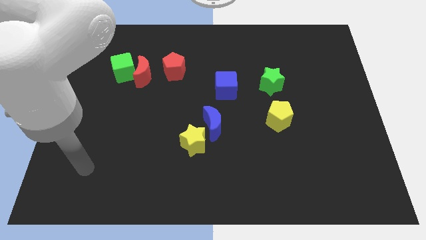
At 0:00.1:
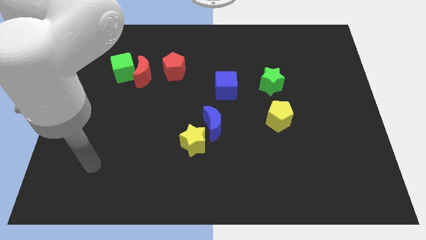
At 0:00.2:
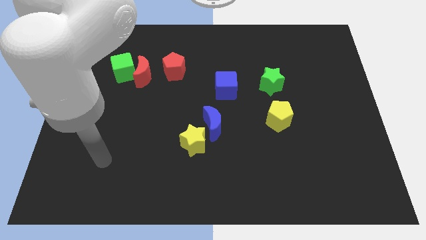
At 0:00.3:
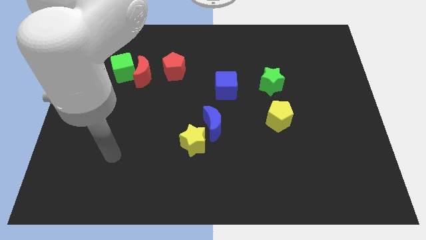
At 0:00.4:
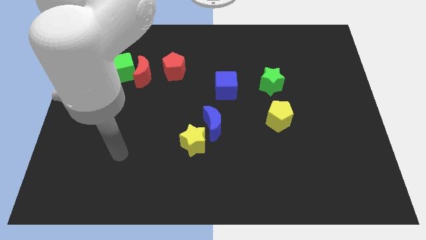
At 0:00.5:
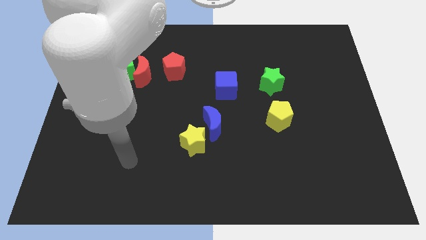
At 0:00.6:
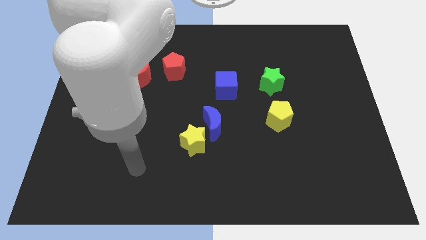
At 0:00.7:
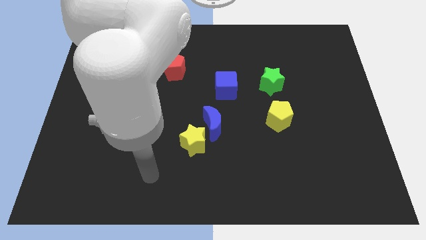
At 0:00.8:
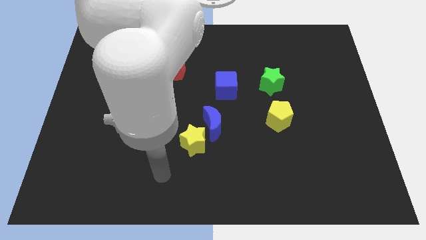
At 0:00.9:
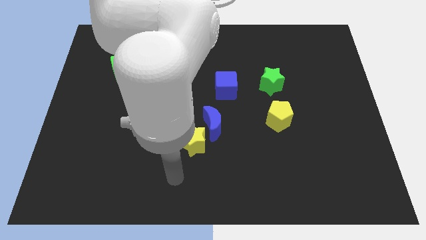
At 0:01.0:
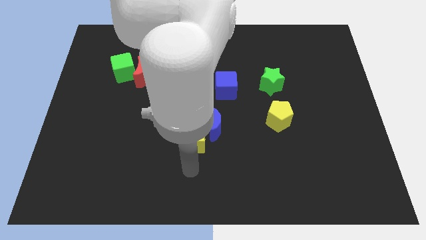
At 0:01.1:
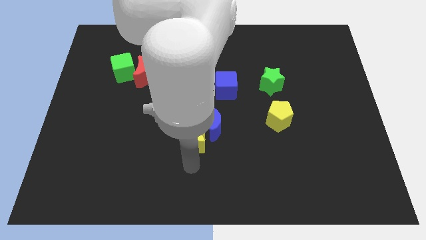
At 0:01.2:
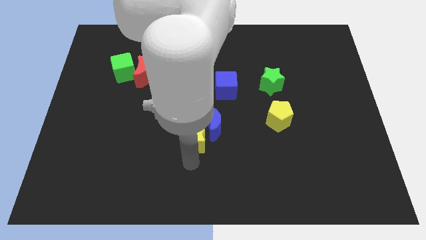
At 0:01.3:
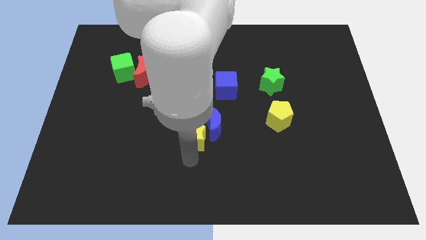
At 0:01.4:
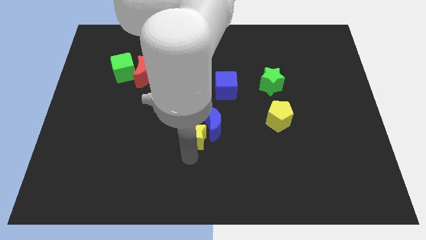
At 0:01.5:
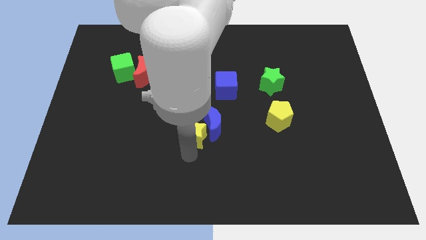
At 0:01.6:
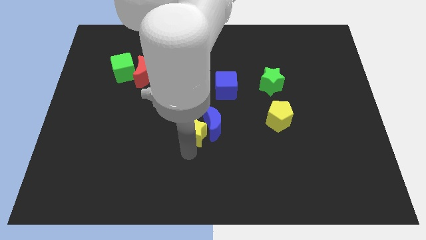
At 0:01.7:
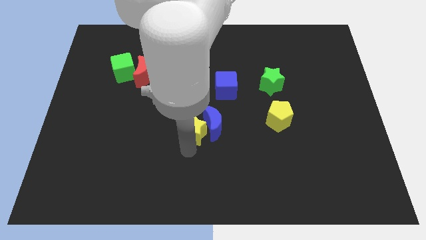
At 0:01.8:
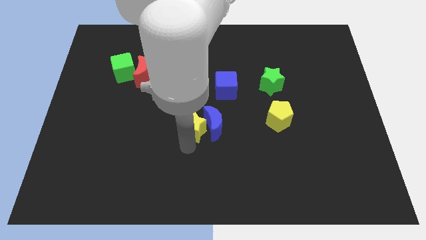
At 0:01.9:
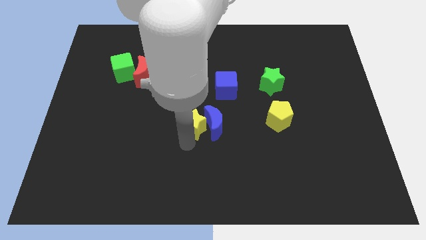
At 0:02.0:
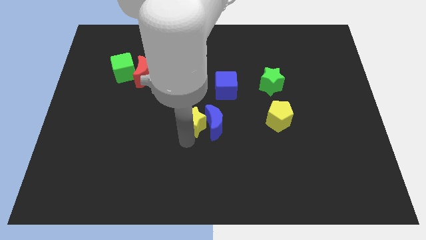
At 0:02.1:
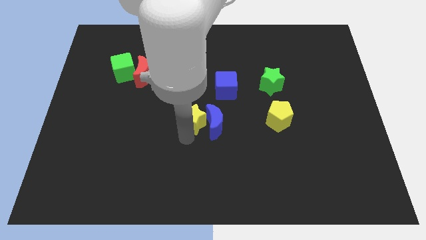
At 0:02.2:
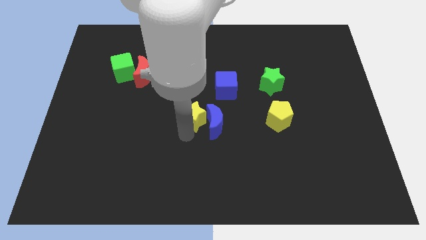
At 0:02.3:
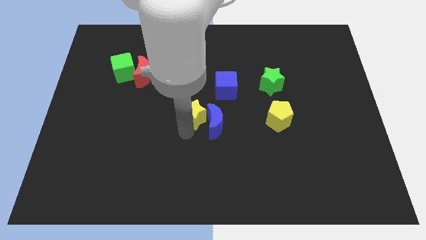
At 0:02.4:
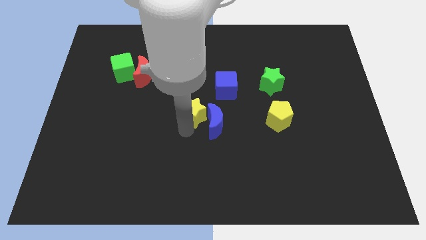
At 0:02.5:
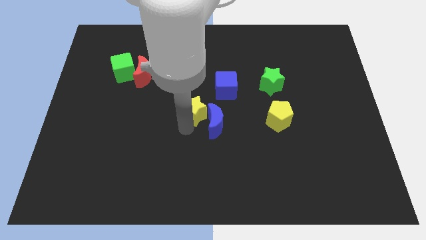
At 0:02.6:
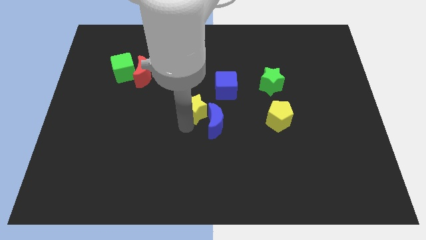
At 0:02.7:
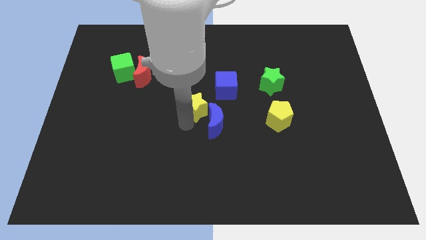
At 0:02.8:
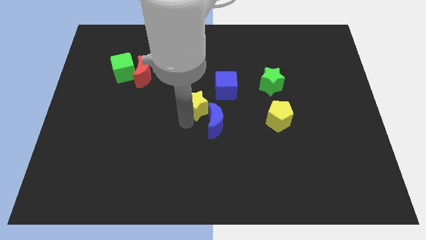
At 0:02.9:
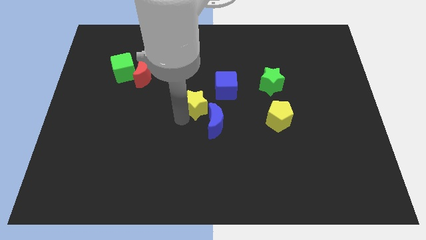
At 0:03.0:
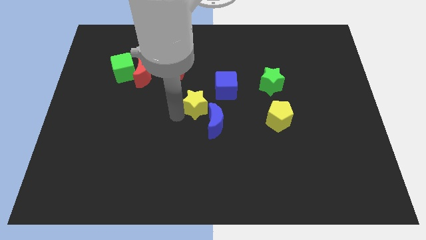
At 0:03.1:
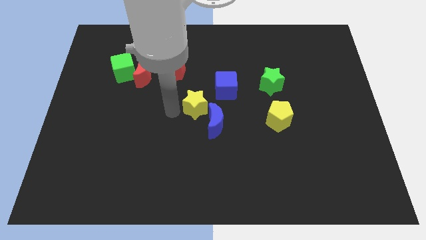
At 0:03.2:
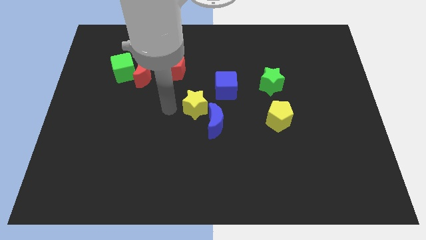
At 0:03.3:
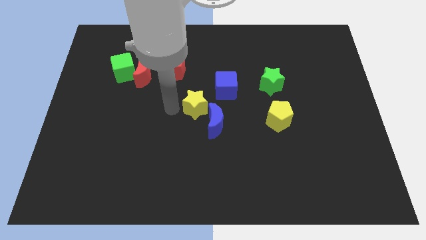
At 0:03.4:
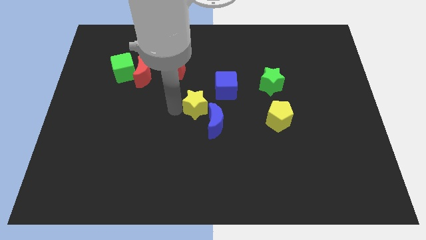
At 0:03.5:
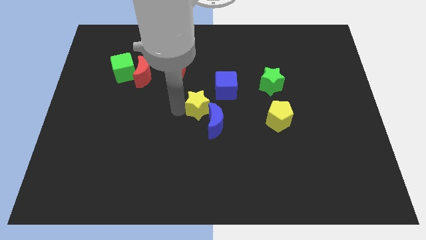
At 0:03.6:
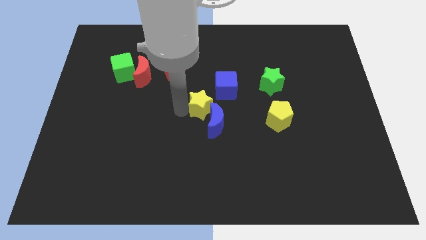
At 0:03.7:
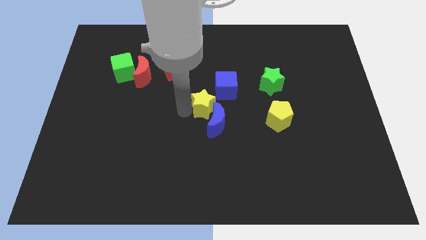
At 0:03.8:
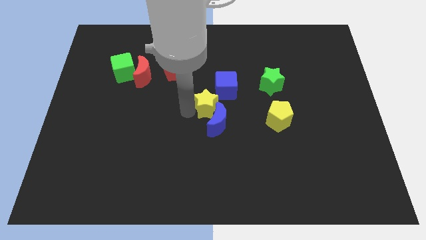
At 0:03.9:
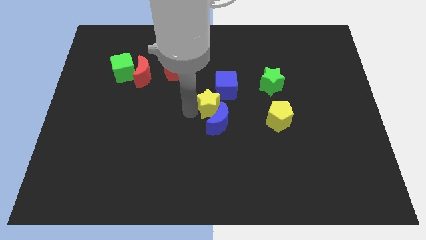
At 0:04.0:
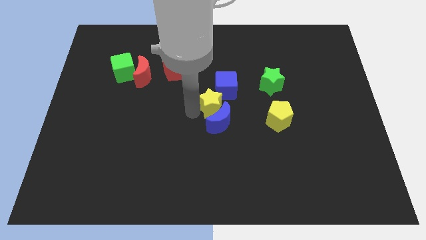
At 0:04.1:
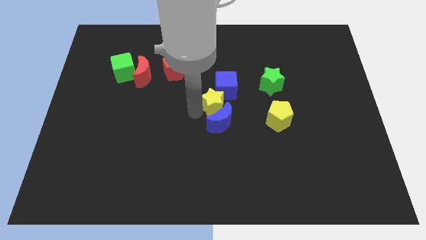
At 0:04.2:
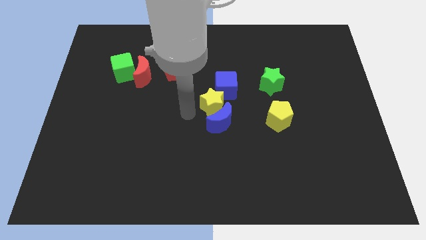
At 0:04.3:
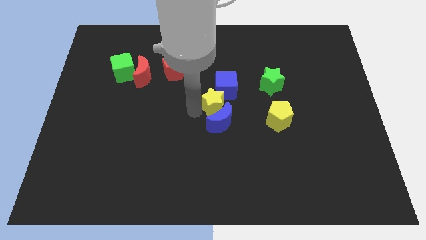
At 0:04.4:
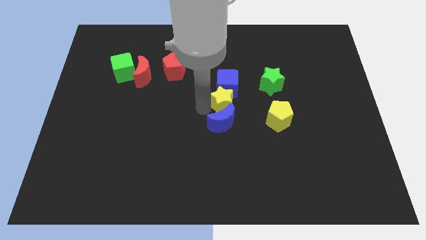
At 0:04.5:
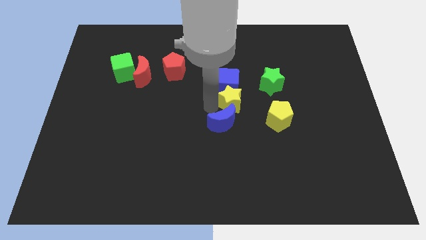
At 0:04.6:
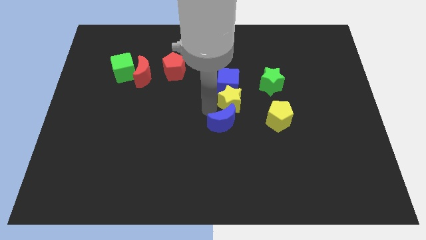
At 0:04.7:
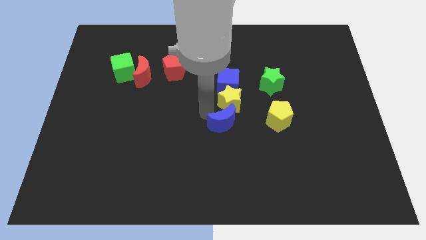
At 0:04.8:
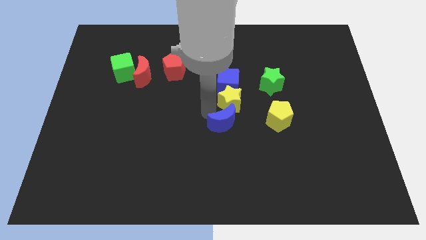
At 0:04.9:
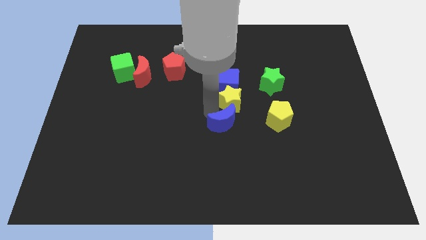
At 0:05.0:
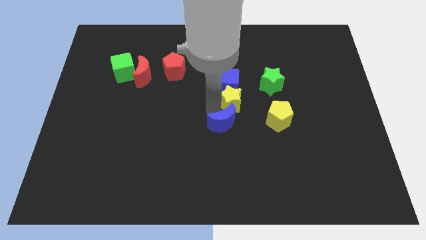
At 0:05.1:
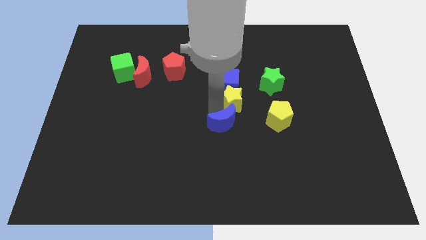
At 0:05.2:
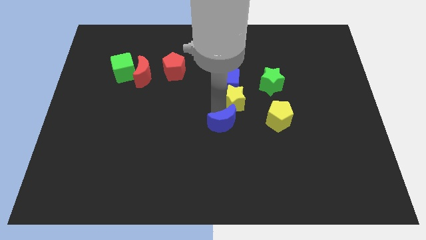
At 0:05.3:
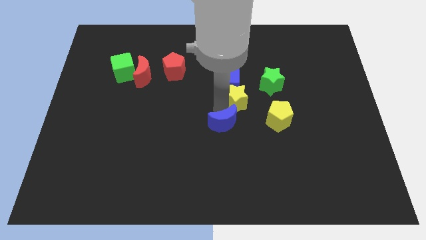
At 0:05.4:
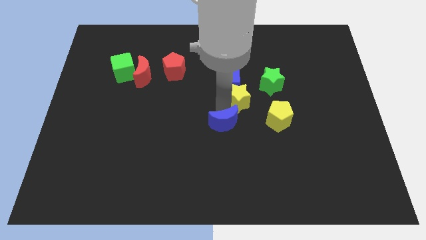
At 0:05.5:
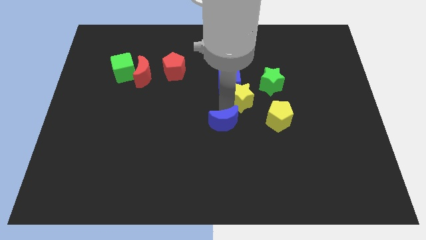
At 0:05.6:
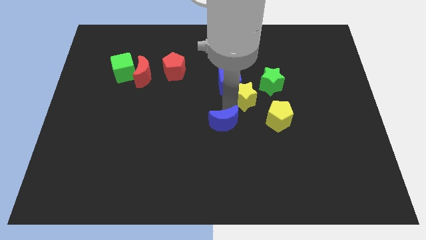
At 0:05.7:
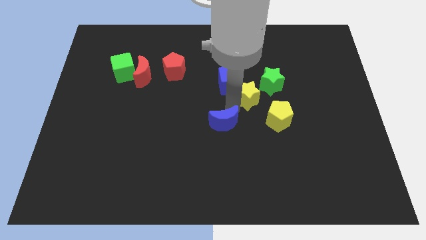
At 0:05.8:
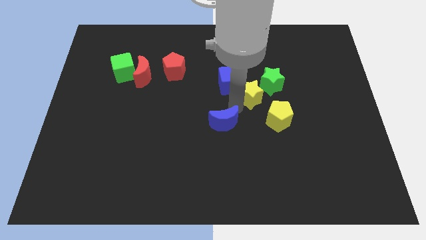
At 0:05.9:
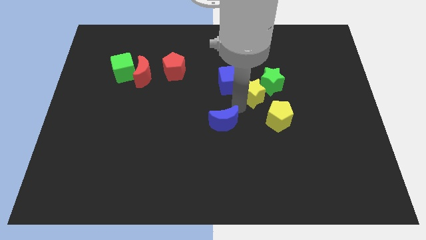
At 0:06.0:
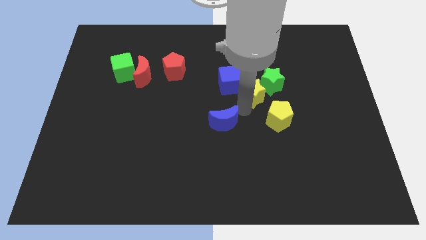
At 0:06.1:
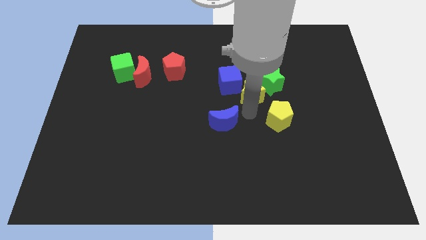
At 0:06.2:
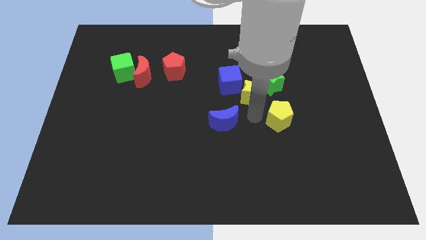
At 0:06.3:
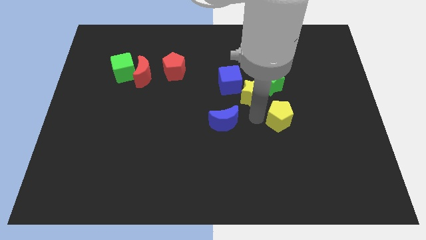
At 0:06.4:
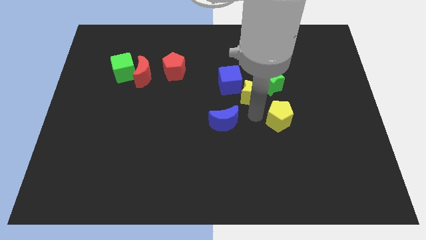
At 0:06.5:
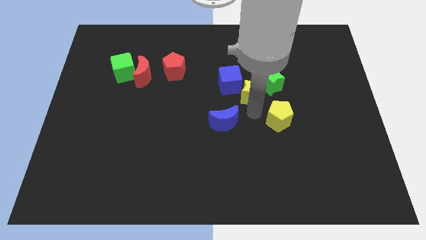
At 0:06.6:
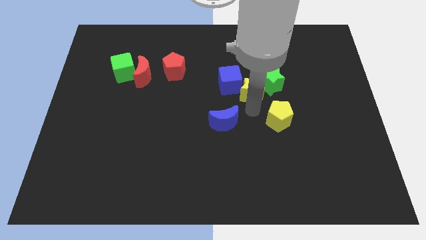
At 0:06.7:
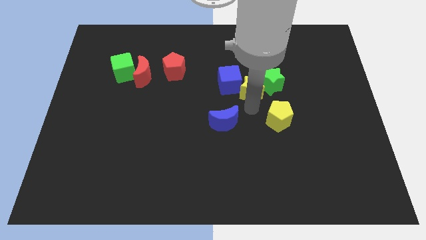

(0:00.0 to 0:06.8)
push the yellow star upwards and then to the right

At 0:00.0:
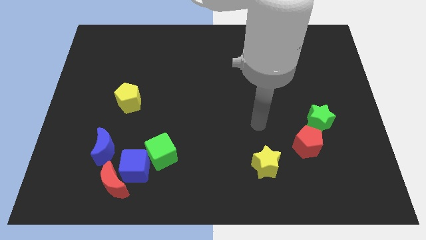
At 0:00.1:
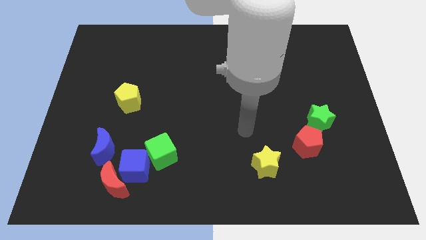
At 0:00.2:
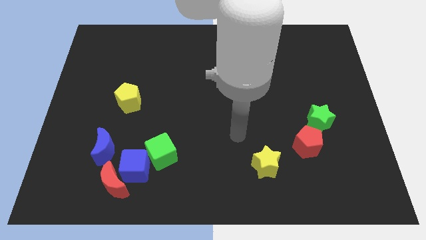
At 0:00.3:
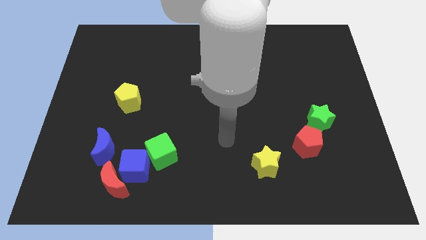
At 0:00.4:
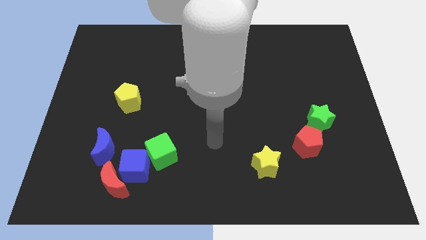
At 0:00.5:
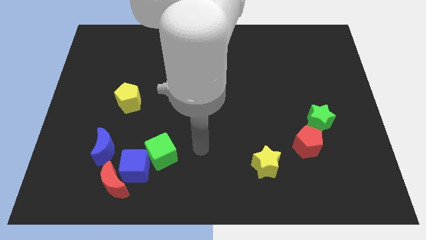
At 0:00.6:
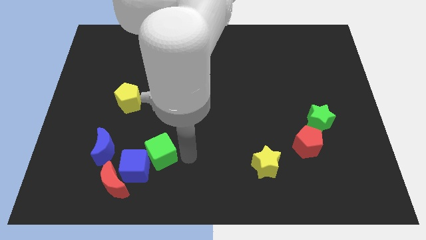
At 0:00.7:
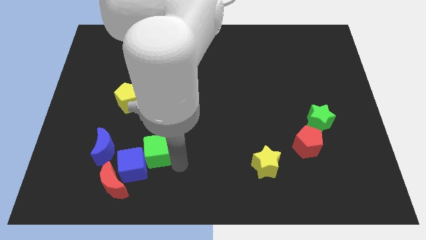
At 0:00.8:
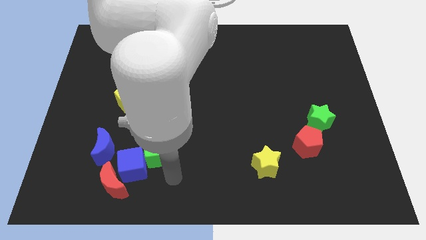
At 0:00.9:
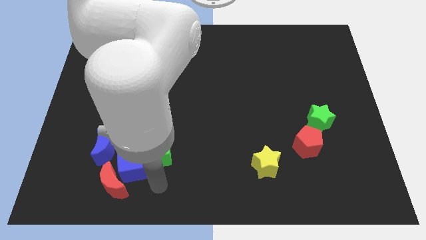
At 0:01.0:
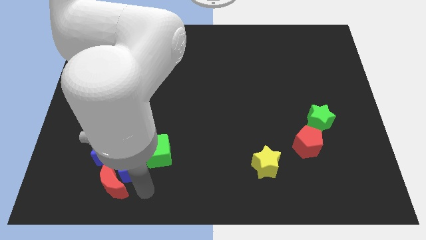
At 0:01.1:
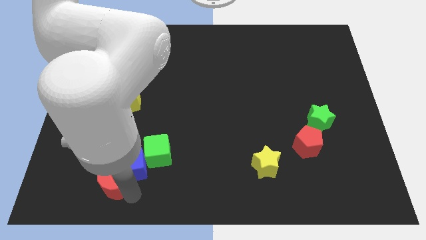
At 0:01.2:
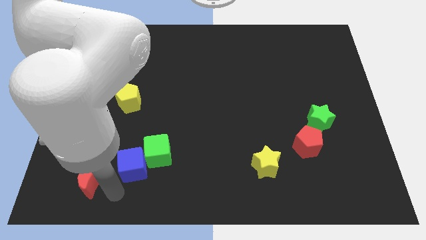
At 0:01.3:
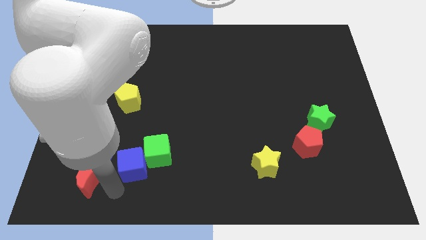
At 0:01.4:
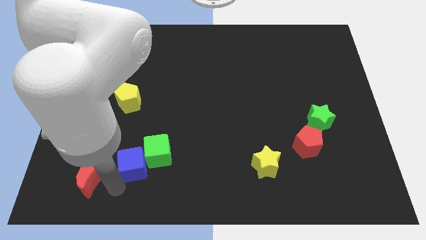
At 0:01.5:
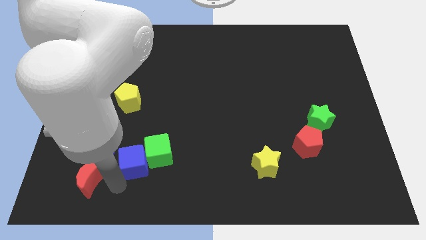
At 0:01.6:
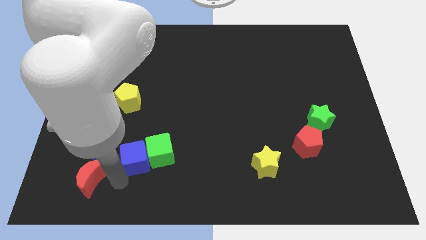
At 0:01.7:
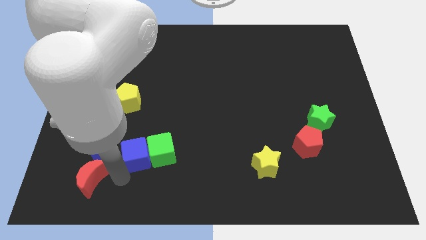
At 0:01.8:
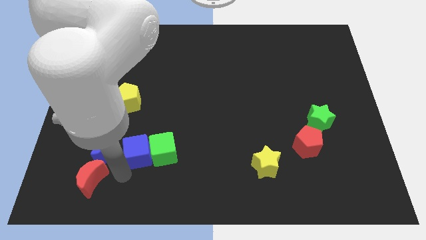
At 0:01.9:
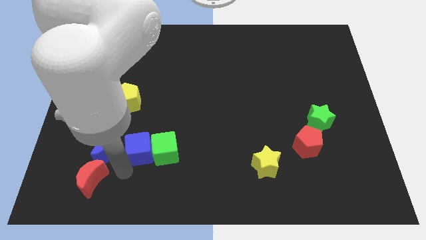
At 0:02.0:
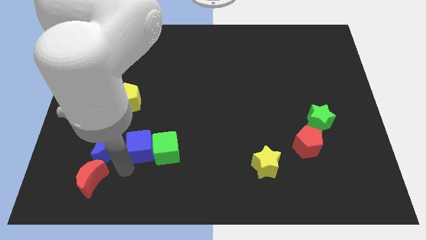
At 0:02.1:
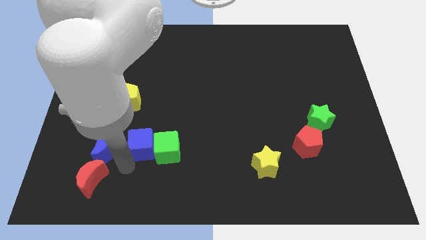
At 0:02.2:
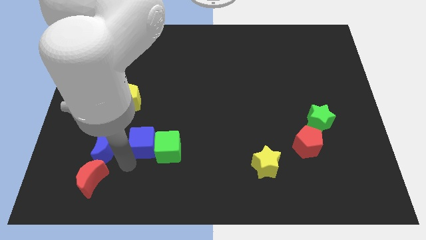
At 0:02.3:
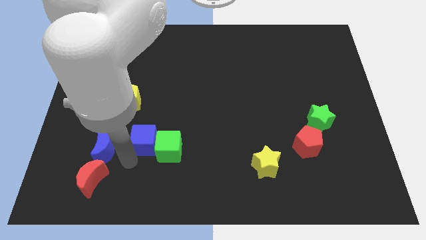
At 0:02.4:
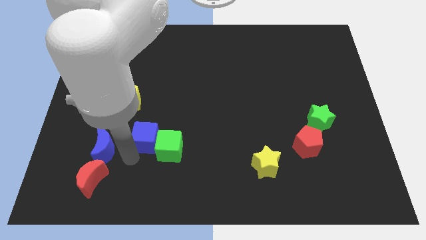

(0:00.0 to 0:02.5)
move the blue cube a bit upwards
